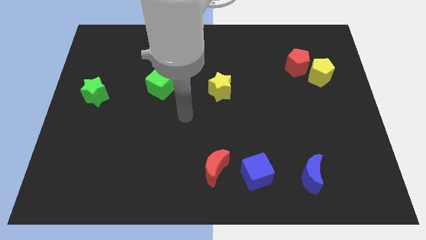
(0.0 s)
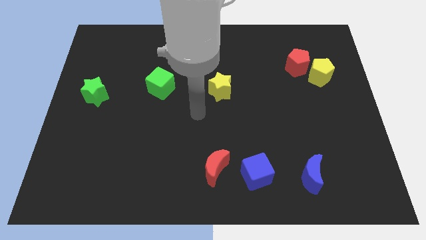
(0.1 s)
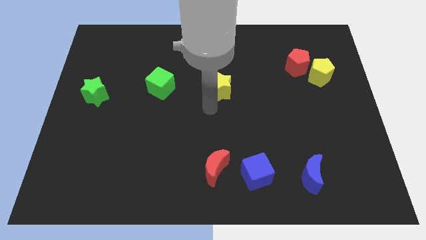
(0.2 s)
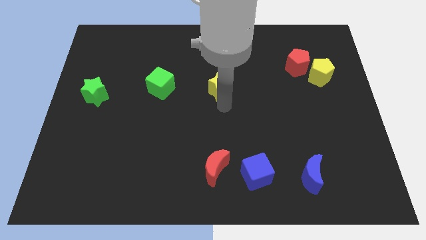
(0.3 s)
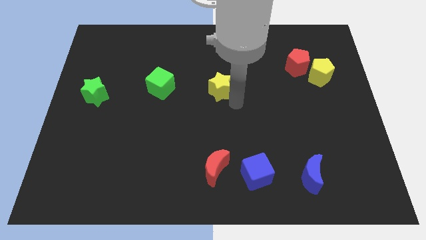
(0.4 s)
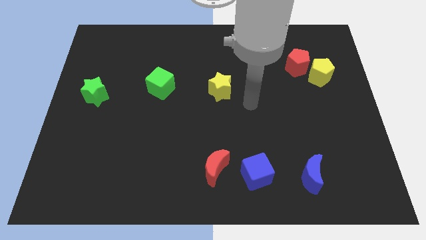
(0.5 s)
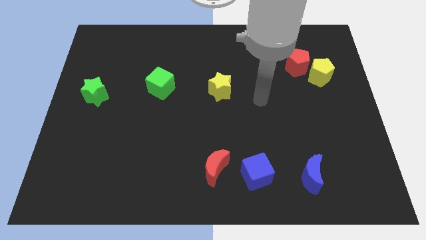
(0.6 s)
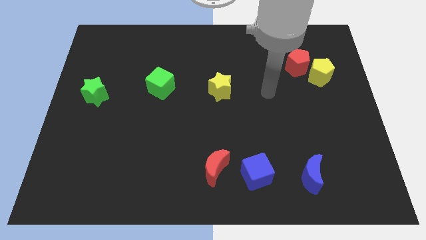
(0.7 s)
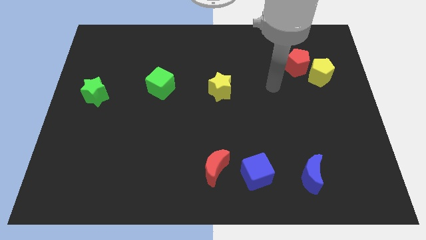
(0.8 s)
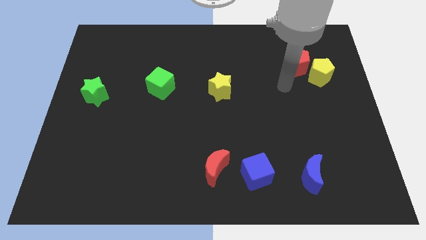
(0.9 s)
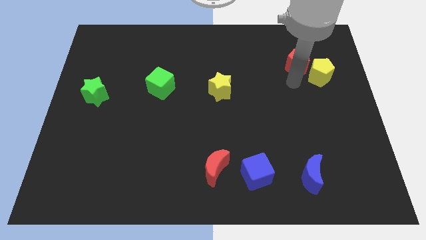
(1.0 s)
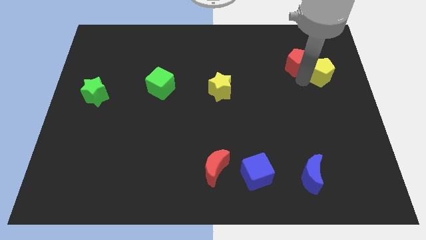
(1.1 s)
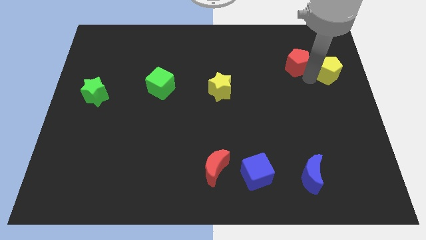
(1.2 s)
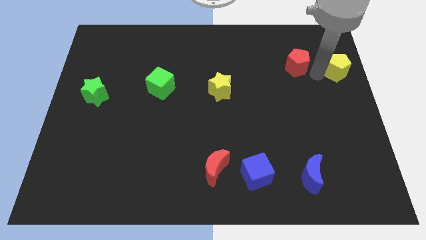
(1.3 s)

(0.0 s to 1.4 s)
pull the red pentagon apart from the yellow pentagon

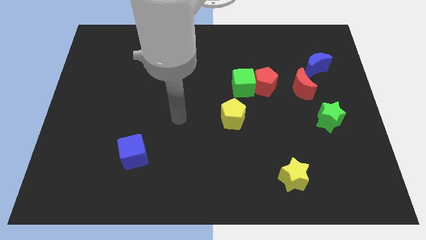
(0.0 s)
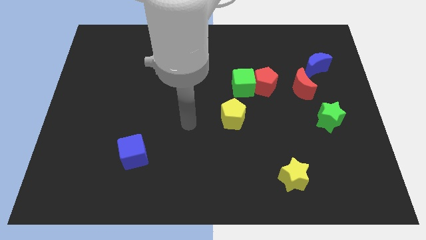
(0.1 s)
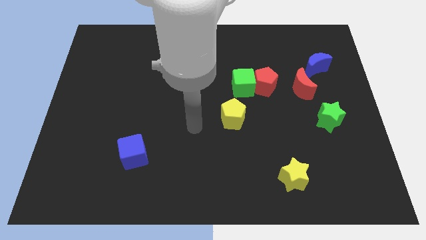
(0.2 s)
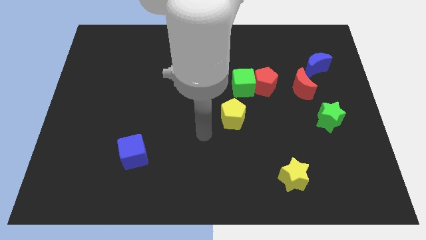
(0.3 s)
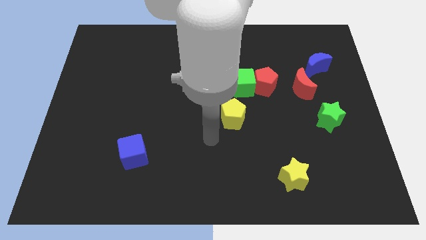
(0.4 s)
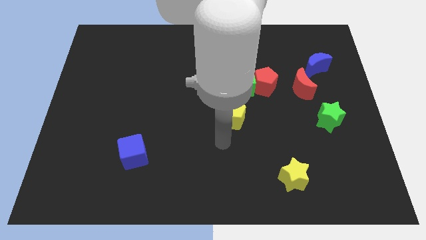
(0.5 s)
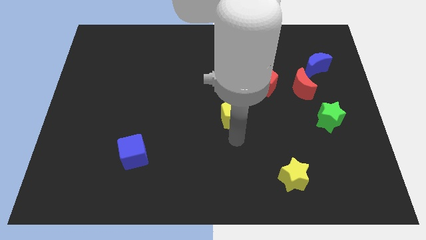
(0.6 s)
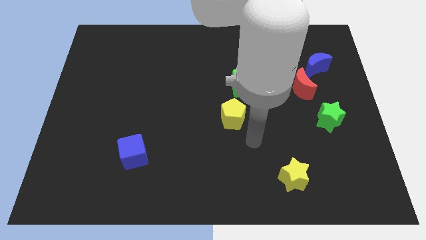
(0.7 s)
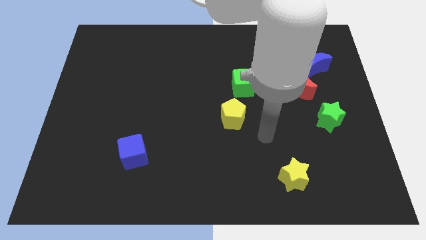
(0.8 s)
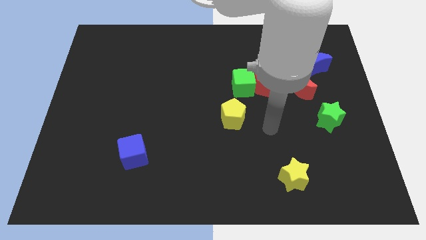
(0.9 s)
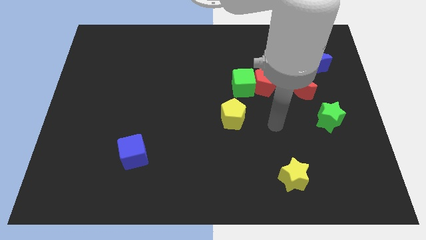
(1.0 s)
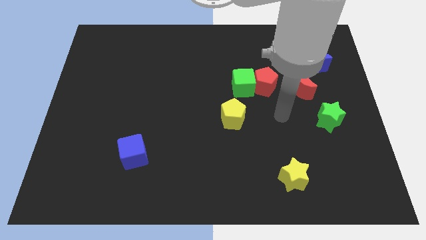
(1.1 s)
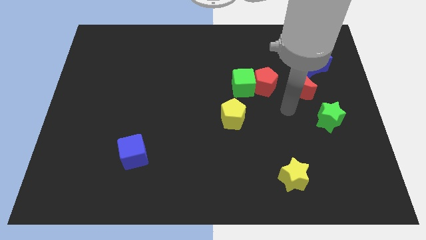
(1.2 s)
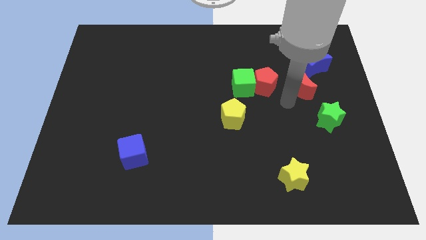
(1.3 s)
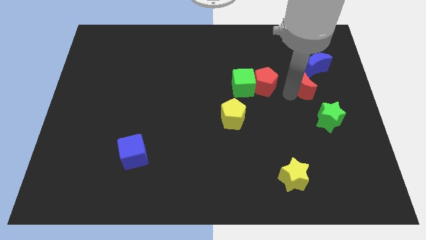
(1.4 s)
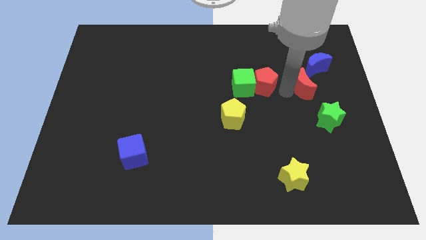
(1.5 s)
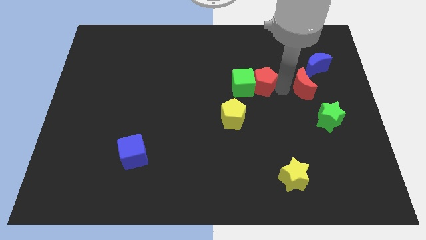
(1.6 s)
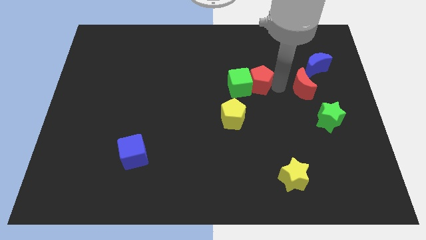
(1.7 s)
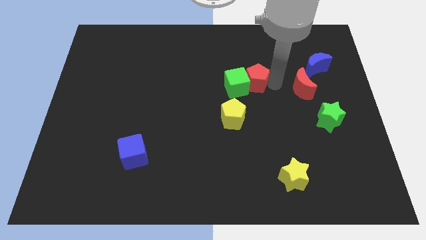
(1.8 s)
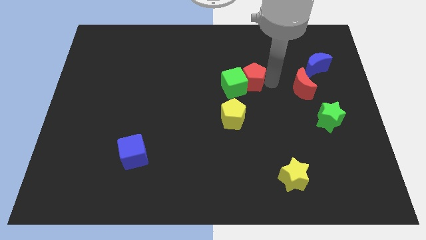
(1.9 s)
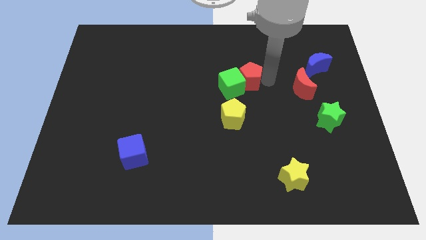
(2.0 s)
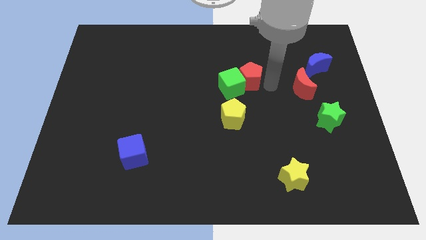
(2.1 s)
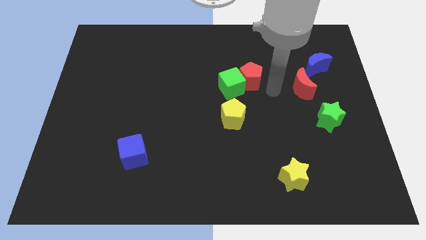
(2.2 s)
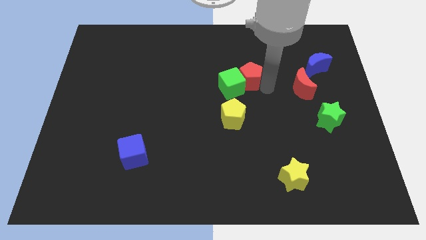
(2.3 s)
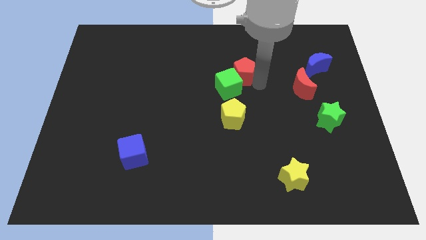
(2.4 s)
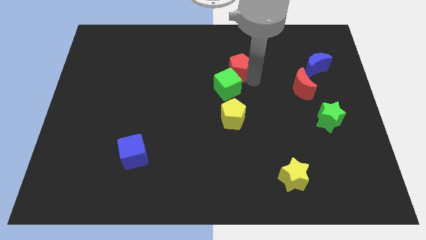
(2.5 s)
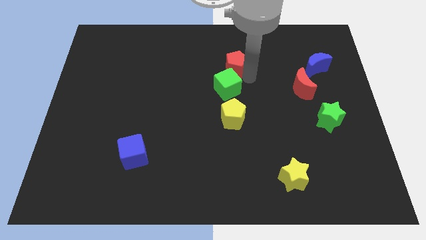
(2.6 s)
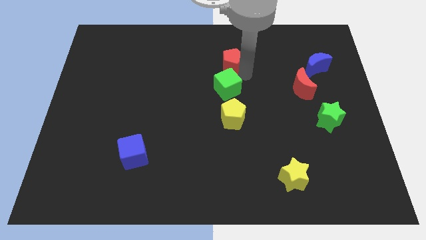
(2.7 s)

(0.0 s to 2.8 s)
separate the red pentagon from the green cube and red moon

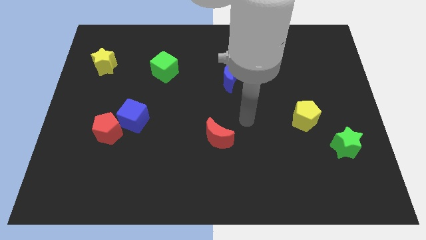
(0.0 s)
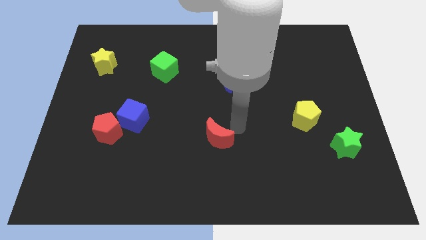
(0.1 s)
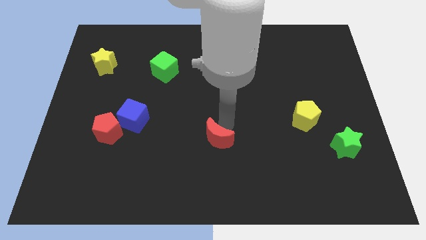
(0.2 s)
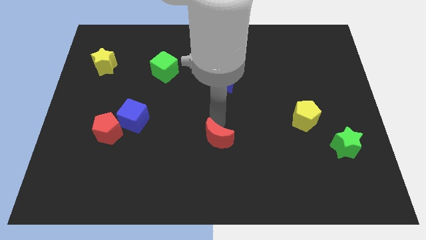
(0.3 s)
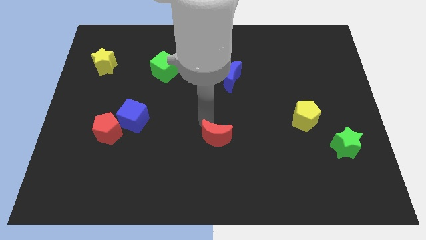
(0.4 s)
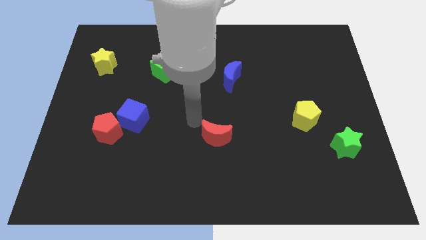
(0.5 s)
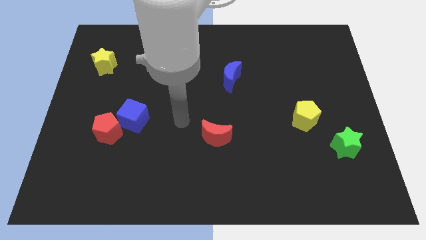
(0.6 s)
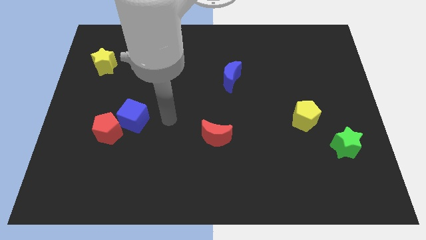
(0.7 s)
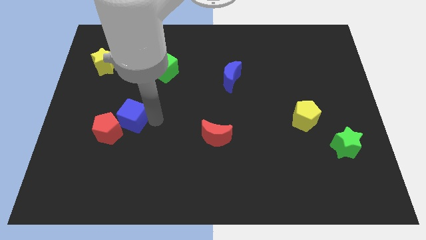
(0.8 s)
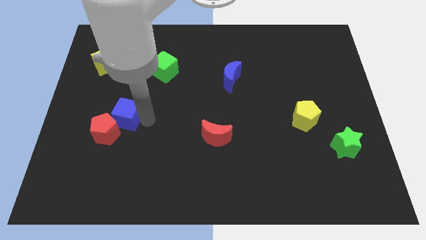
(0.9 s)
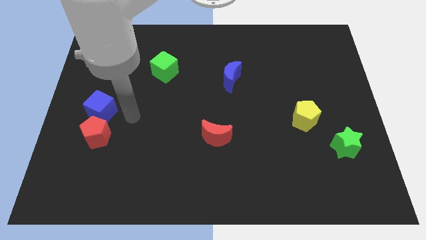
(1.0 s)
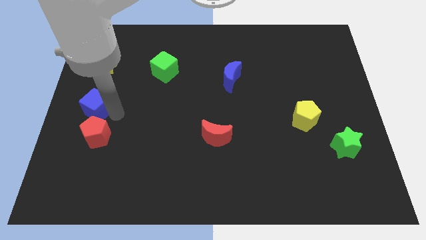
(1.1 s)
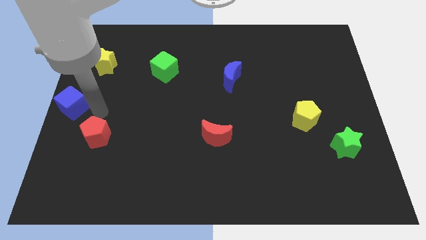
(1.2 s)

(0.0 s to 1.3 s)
pull the red pentagon apart from the blue cube

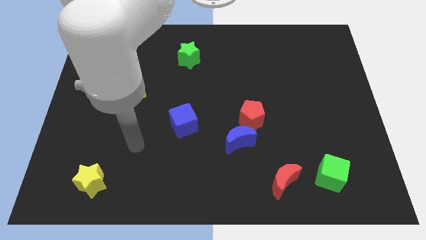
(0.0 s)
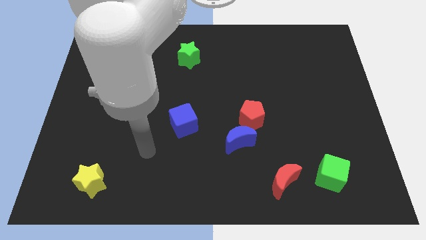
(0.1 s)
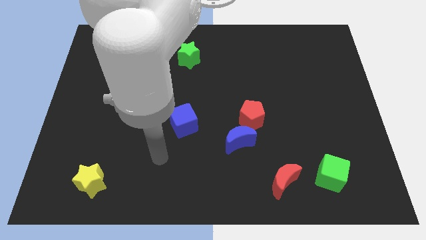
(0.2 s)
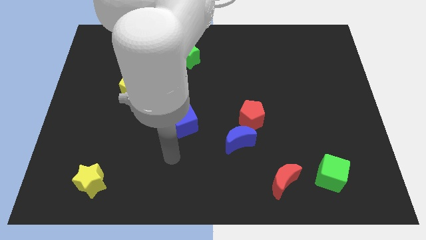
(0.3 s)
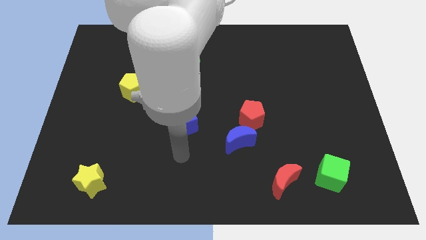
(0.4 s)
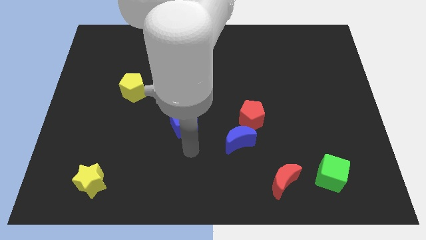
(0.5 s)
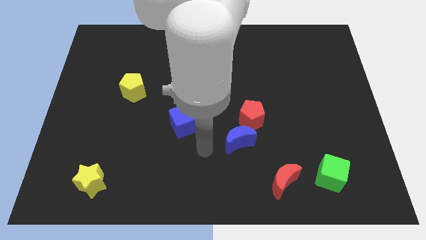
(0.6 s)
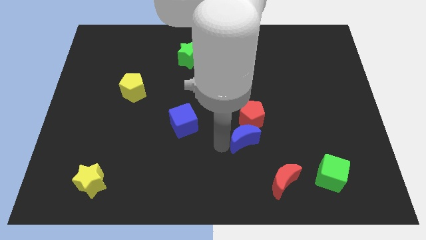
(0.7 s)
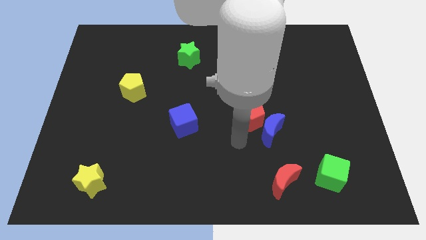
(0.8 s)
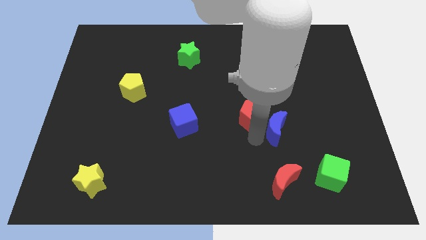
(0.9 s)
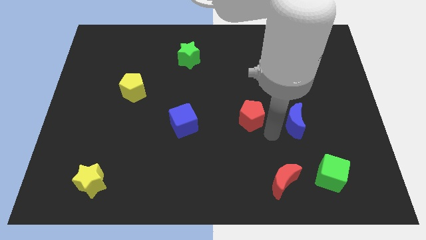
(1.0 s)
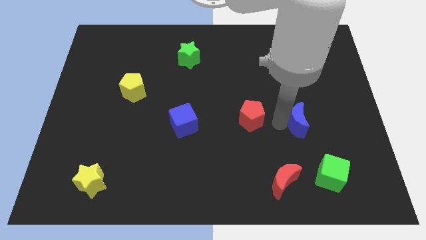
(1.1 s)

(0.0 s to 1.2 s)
separate the red pentagon from the blue moon

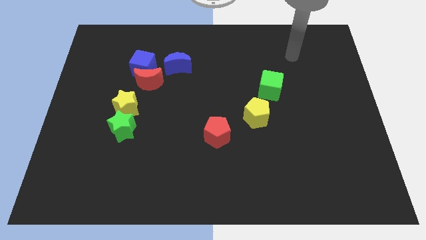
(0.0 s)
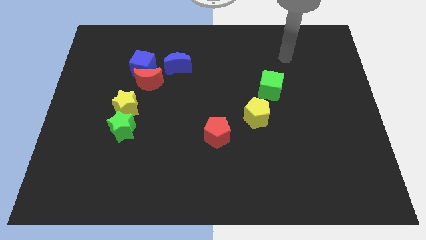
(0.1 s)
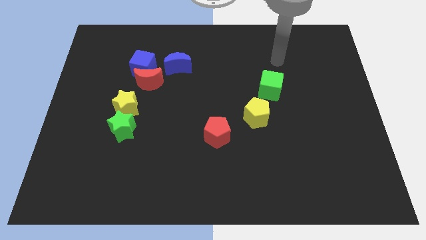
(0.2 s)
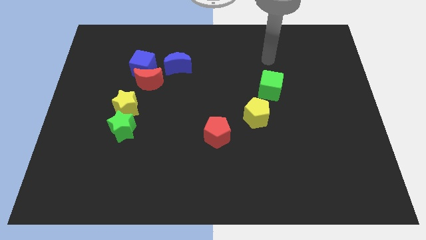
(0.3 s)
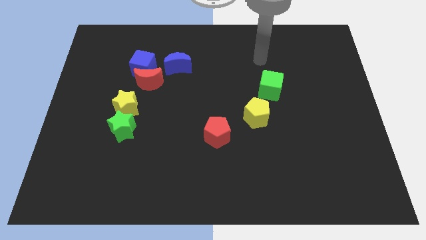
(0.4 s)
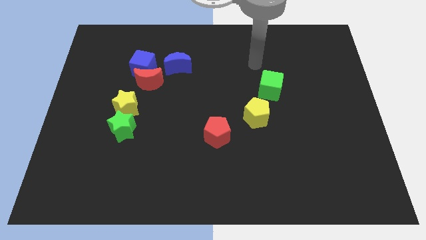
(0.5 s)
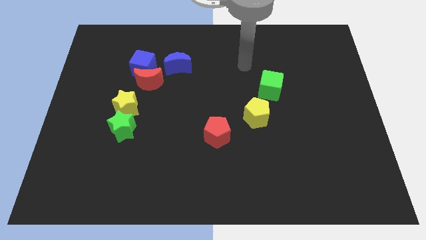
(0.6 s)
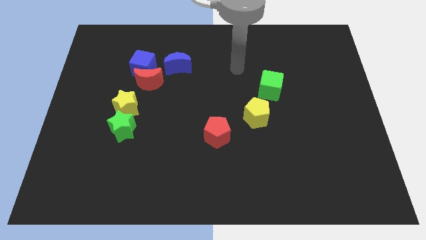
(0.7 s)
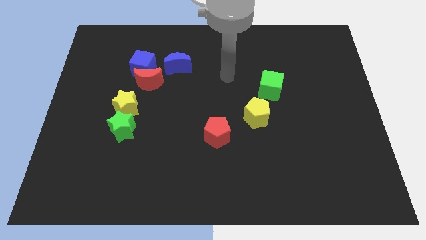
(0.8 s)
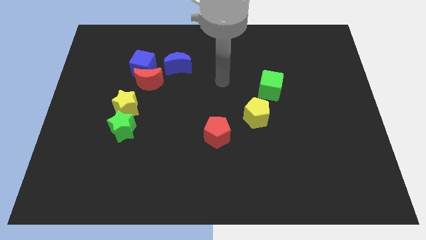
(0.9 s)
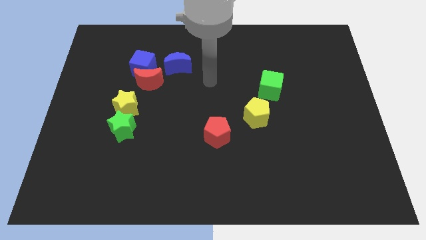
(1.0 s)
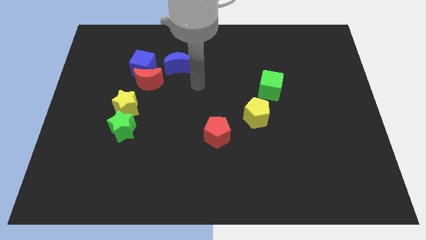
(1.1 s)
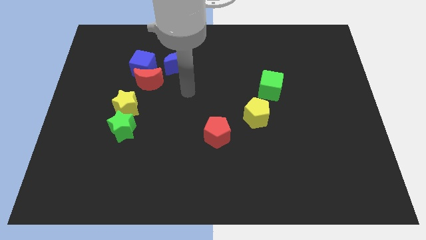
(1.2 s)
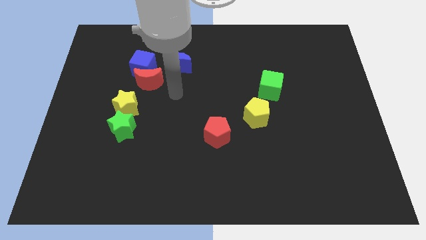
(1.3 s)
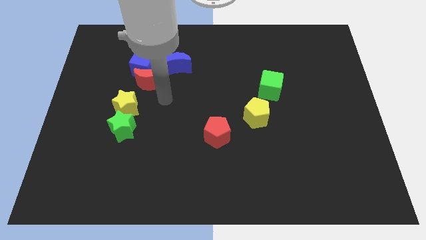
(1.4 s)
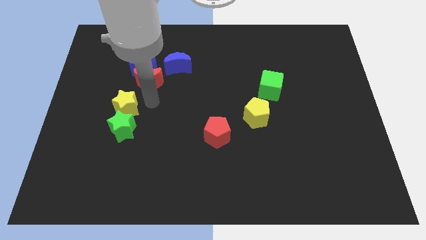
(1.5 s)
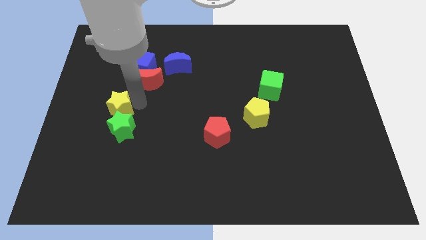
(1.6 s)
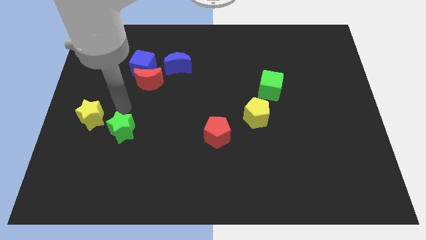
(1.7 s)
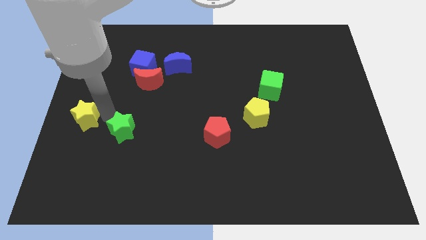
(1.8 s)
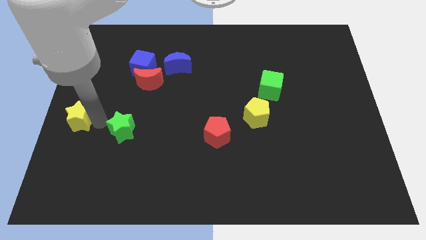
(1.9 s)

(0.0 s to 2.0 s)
move the green star away from the yellow star

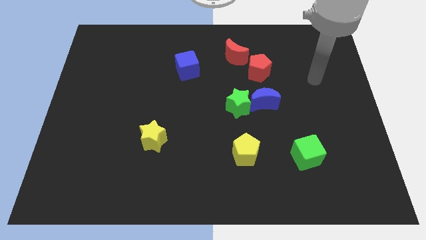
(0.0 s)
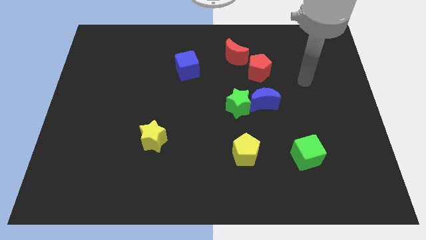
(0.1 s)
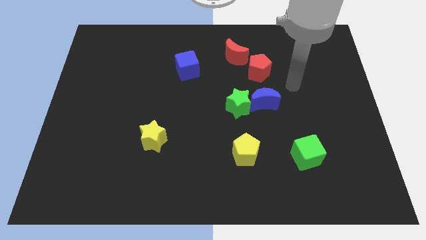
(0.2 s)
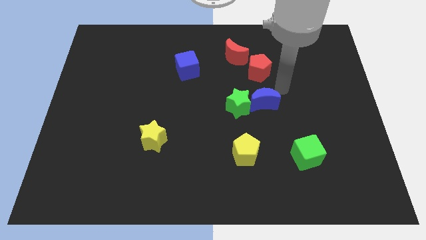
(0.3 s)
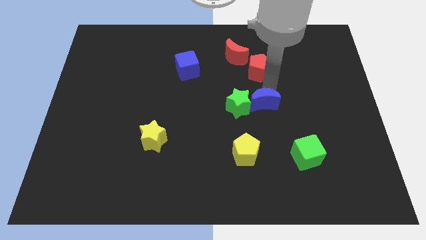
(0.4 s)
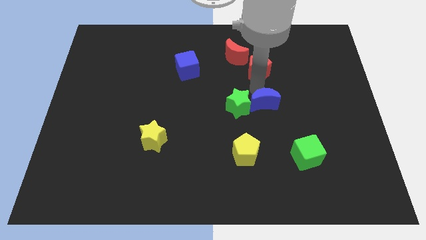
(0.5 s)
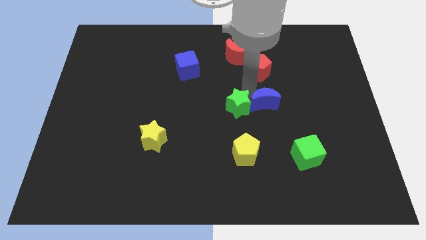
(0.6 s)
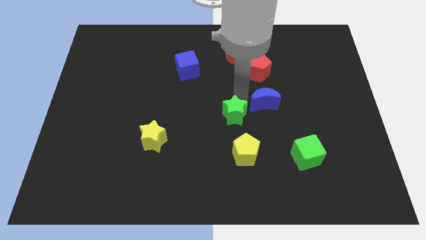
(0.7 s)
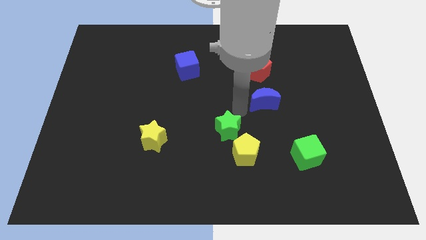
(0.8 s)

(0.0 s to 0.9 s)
separate the blue moon from the green star
